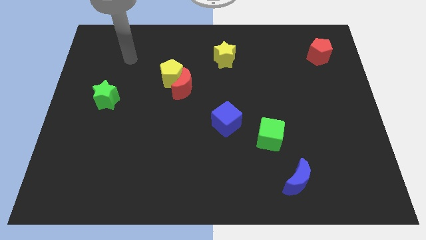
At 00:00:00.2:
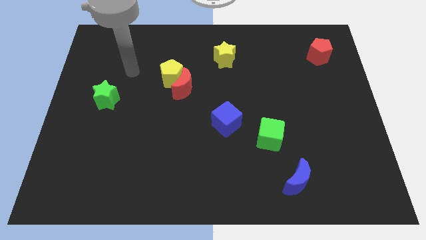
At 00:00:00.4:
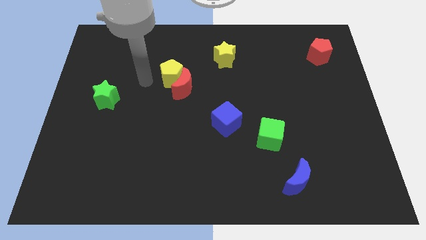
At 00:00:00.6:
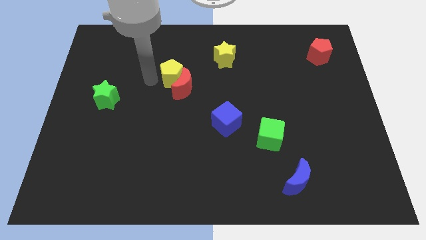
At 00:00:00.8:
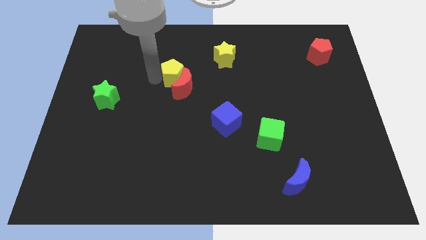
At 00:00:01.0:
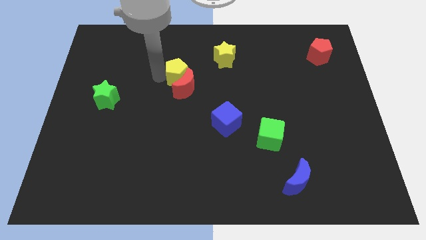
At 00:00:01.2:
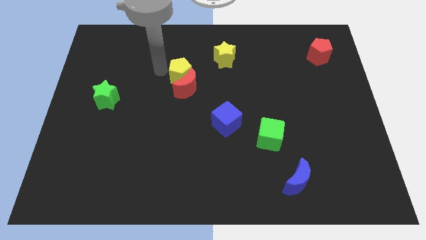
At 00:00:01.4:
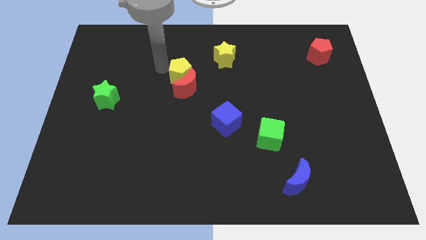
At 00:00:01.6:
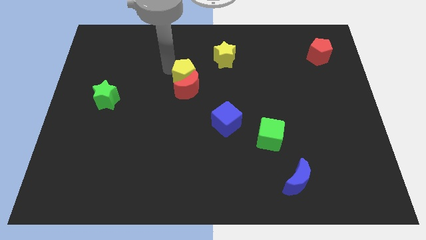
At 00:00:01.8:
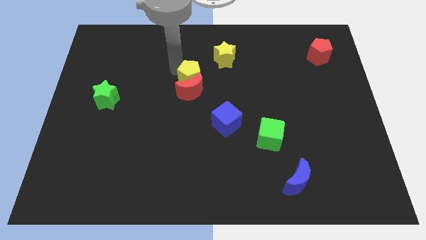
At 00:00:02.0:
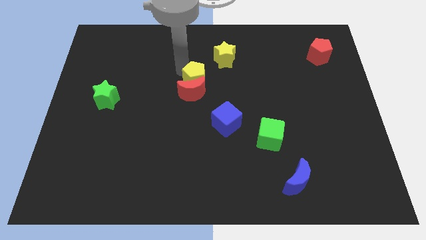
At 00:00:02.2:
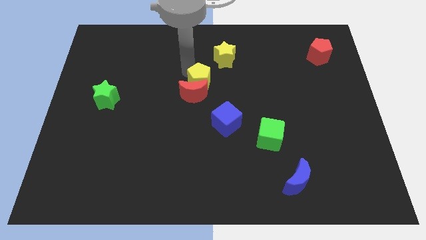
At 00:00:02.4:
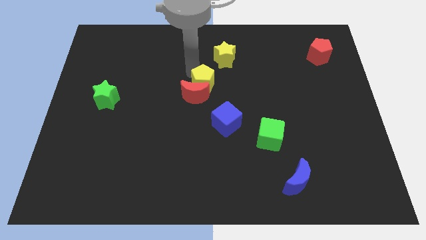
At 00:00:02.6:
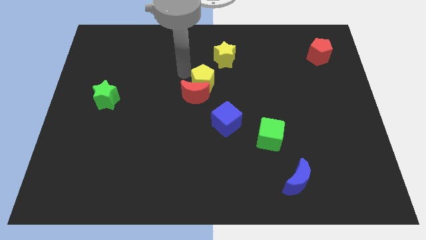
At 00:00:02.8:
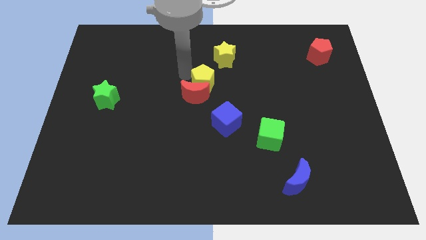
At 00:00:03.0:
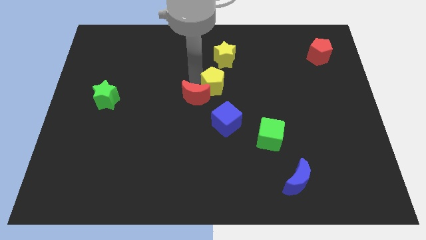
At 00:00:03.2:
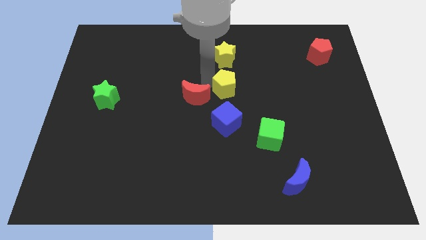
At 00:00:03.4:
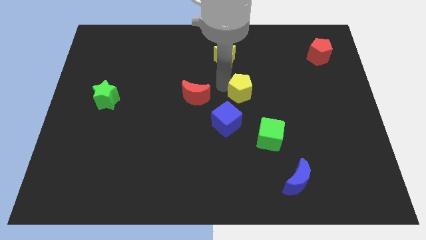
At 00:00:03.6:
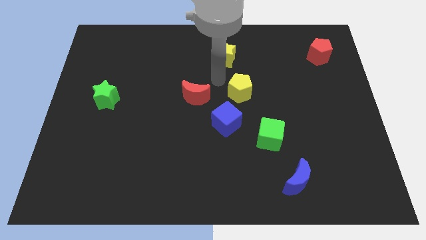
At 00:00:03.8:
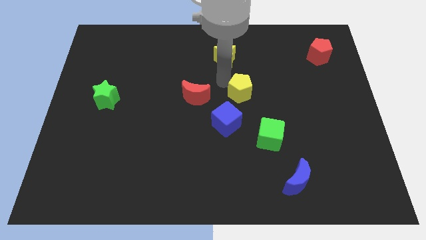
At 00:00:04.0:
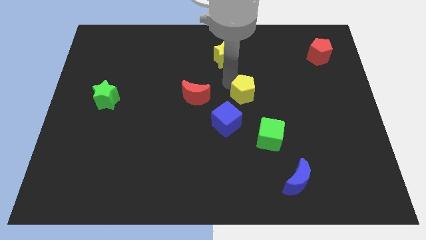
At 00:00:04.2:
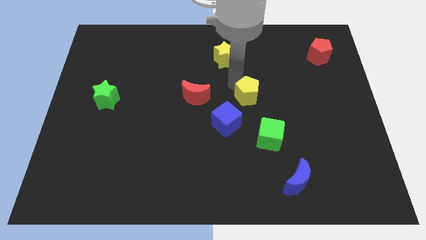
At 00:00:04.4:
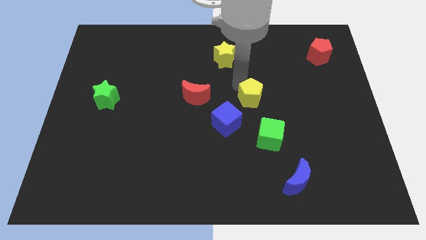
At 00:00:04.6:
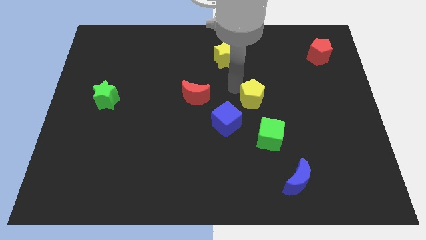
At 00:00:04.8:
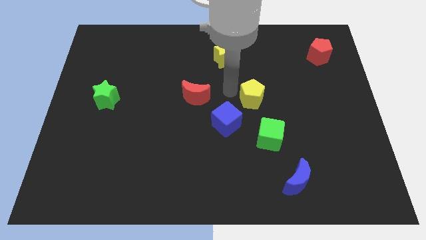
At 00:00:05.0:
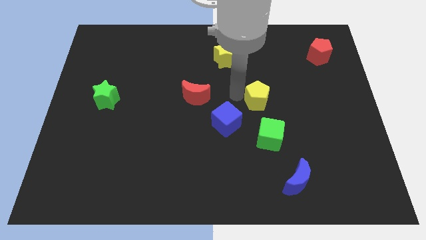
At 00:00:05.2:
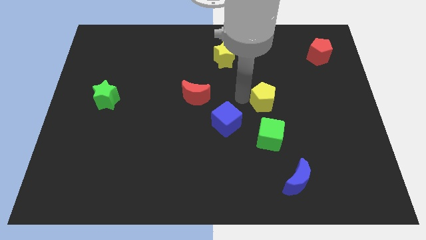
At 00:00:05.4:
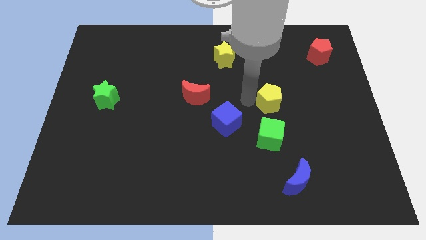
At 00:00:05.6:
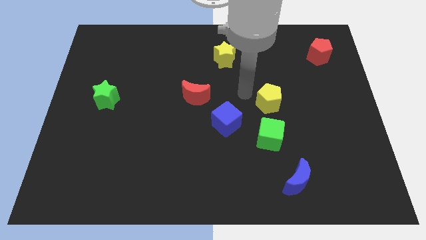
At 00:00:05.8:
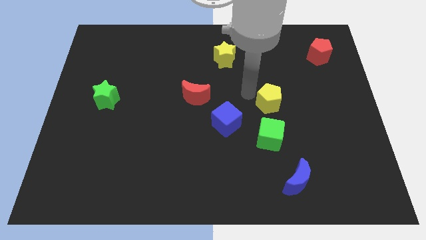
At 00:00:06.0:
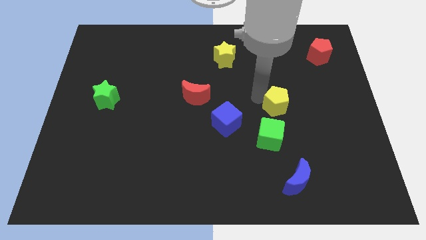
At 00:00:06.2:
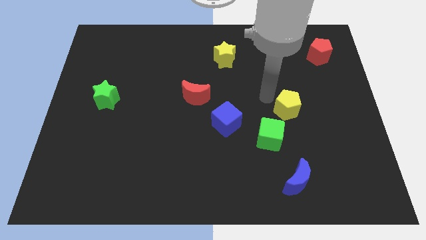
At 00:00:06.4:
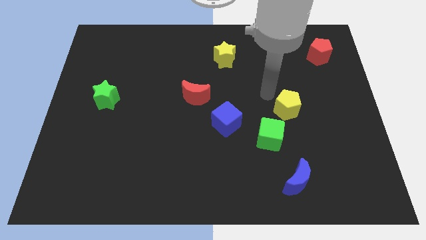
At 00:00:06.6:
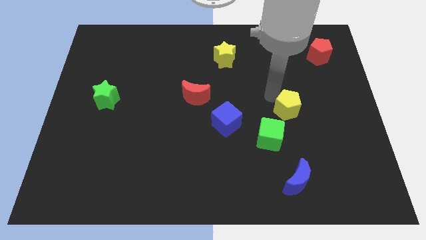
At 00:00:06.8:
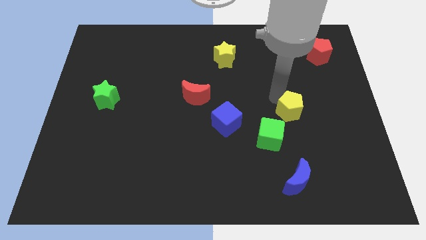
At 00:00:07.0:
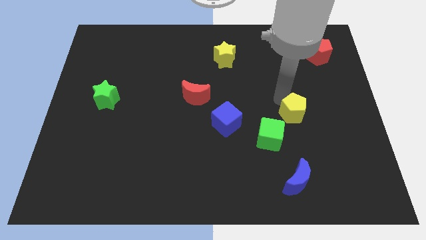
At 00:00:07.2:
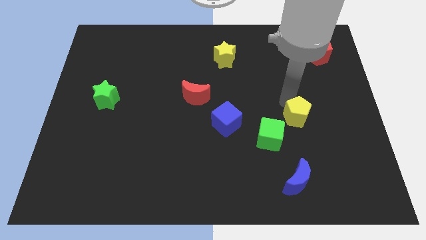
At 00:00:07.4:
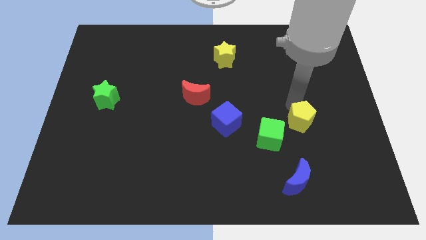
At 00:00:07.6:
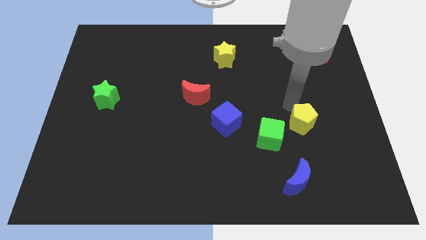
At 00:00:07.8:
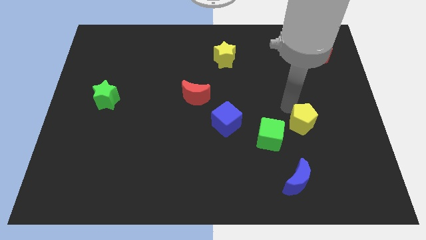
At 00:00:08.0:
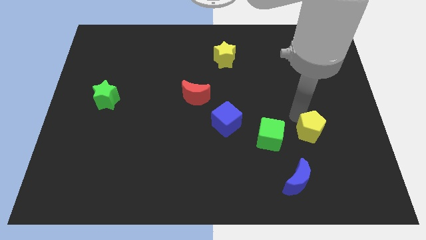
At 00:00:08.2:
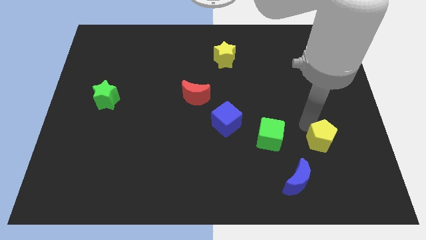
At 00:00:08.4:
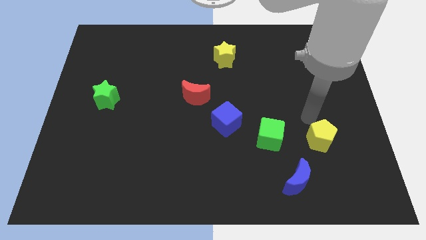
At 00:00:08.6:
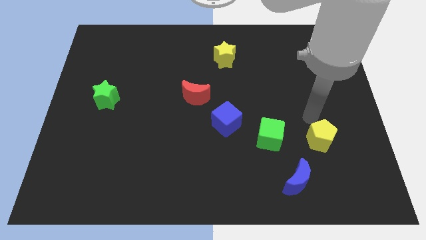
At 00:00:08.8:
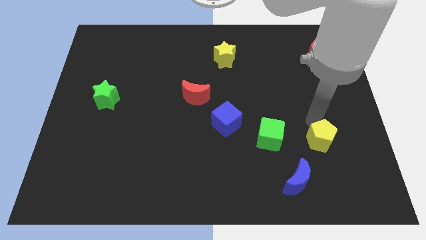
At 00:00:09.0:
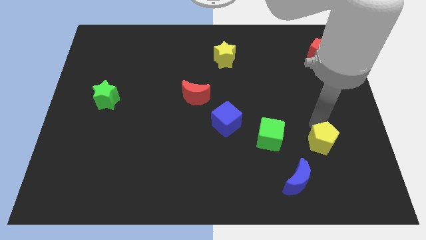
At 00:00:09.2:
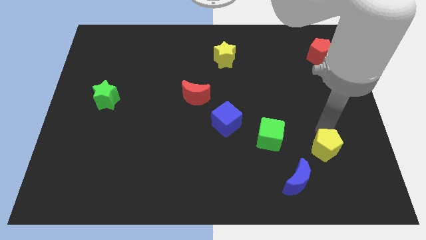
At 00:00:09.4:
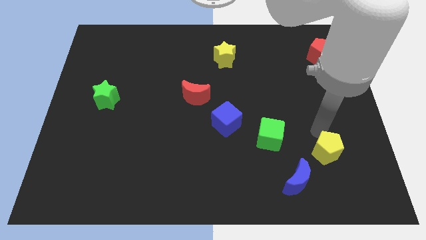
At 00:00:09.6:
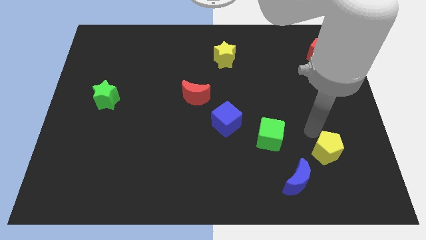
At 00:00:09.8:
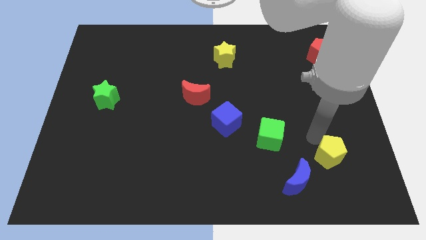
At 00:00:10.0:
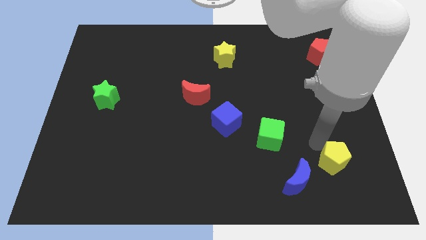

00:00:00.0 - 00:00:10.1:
slide the yellow pentagon to the right side of the blue moon
